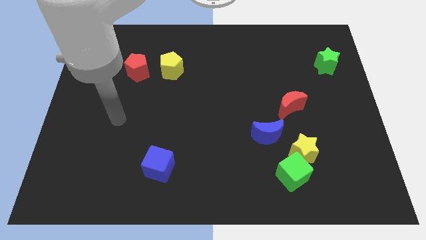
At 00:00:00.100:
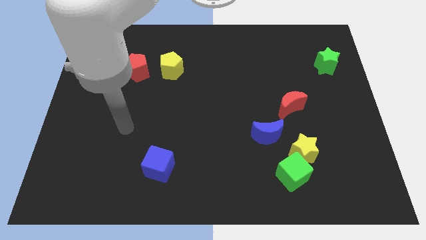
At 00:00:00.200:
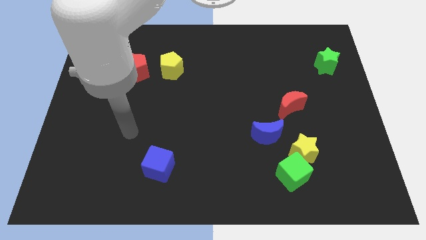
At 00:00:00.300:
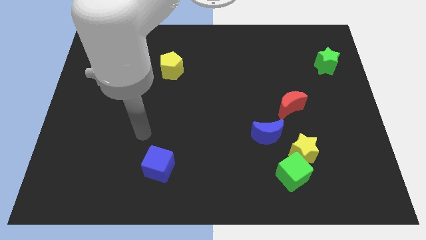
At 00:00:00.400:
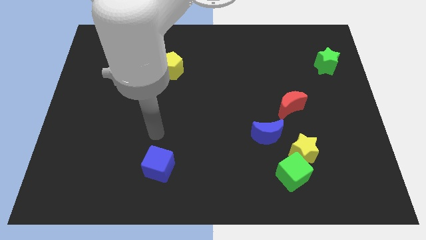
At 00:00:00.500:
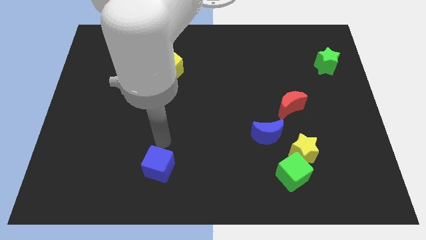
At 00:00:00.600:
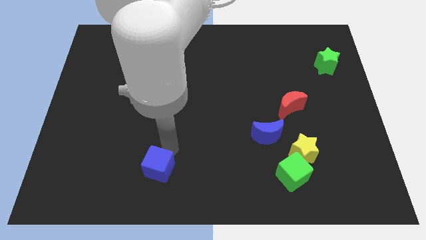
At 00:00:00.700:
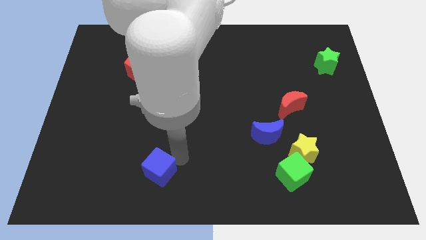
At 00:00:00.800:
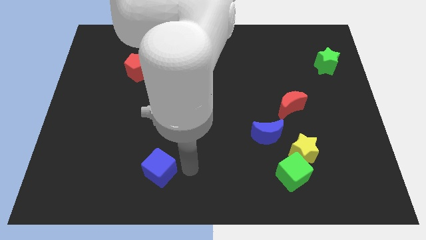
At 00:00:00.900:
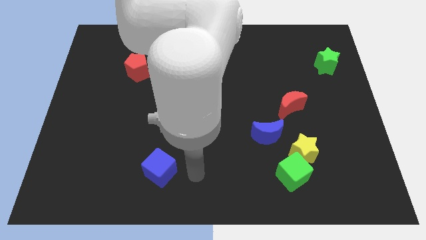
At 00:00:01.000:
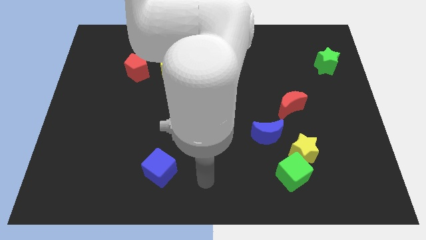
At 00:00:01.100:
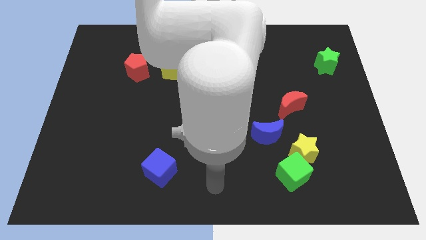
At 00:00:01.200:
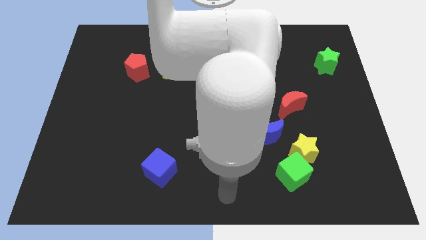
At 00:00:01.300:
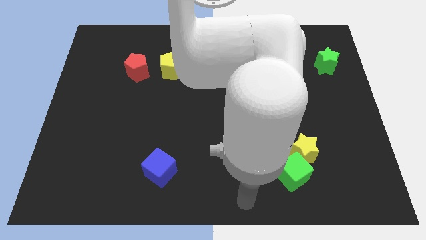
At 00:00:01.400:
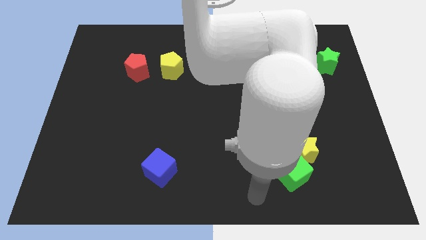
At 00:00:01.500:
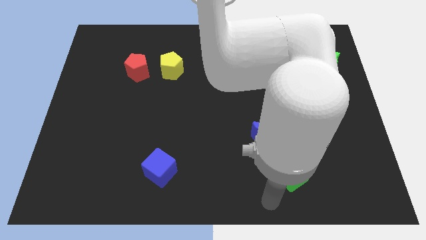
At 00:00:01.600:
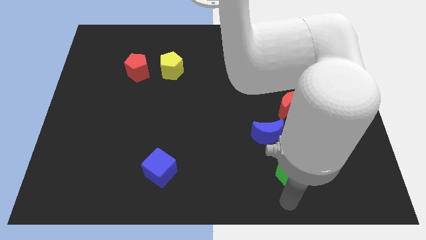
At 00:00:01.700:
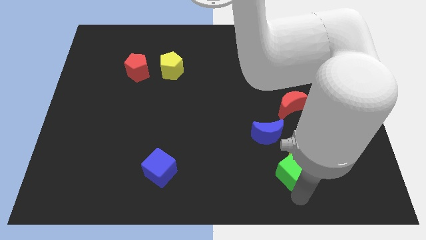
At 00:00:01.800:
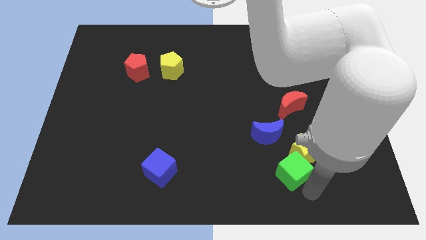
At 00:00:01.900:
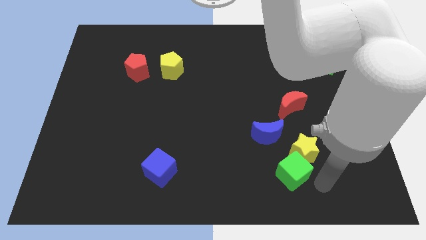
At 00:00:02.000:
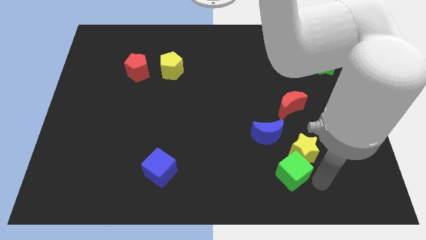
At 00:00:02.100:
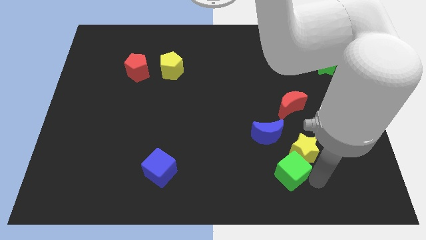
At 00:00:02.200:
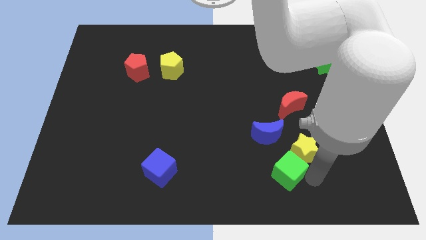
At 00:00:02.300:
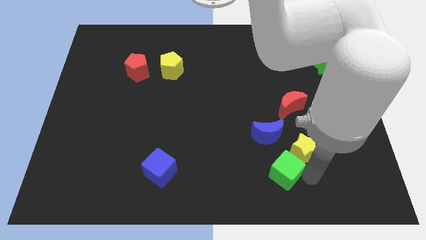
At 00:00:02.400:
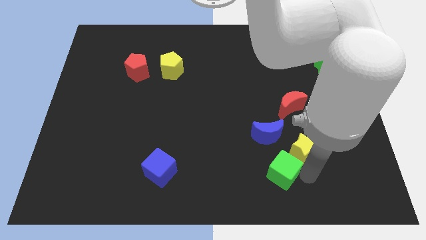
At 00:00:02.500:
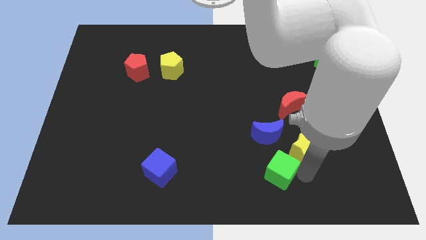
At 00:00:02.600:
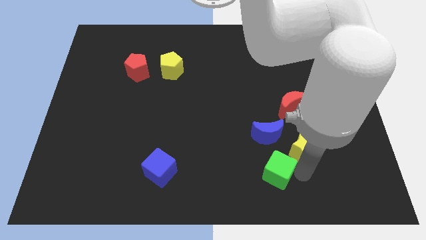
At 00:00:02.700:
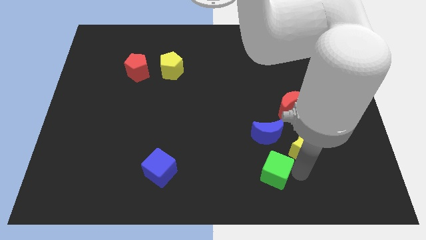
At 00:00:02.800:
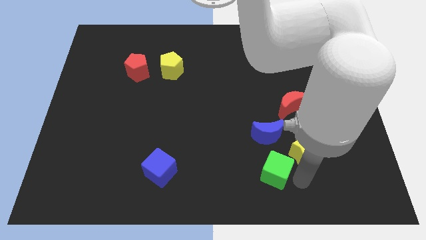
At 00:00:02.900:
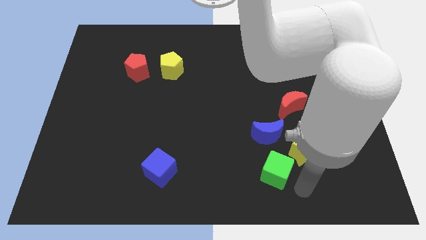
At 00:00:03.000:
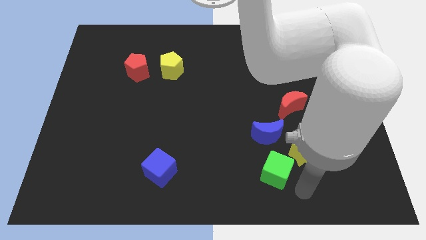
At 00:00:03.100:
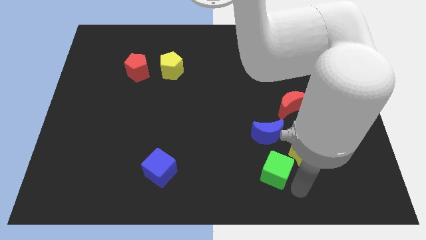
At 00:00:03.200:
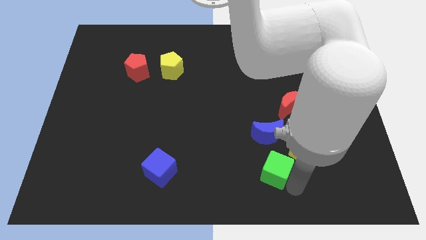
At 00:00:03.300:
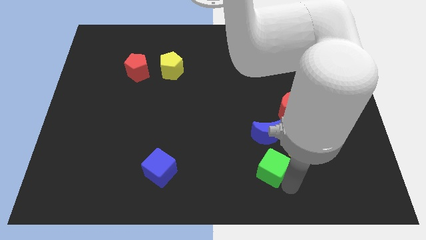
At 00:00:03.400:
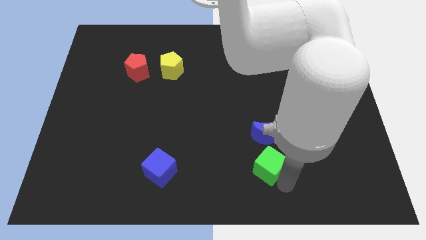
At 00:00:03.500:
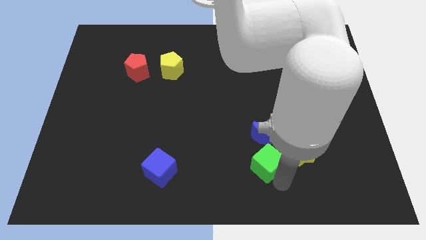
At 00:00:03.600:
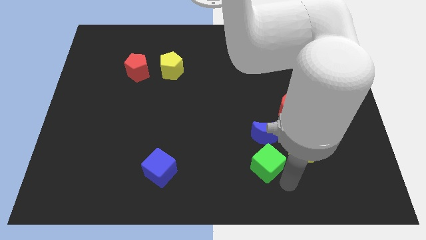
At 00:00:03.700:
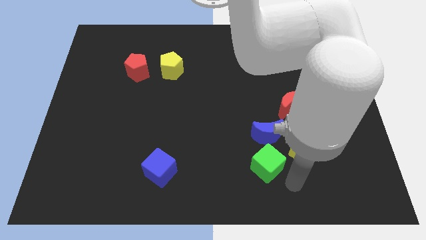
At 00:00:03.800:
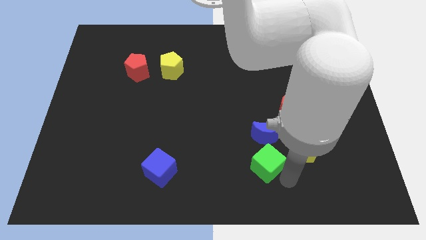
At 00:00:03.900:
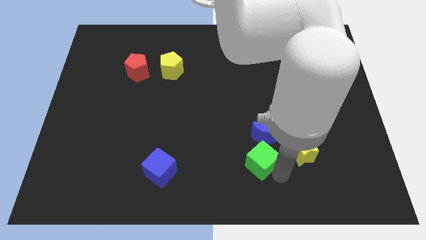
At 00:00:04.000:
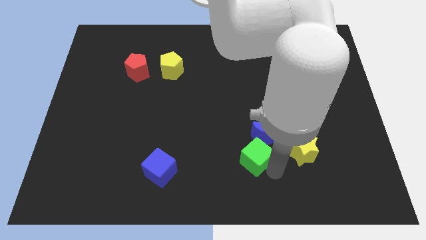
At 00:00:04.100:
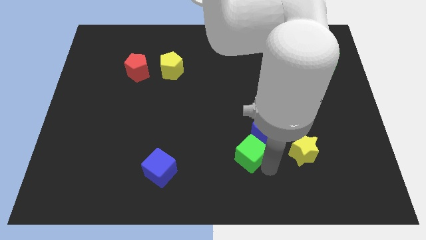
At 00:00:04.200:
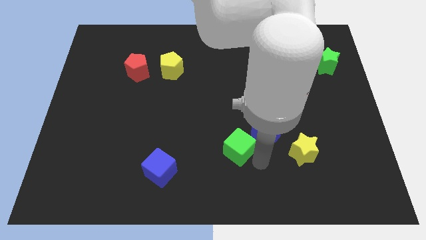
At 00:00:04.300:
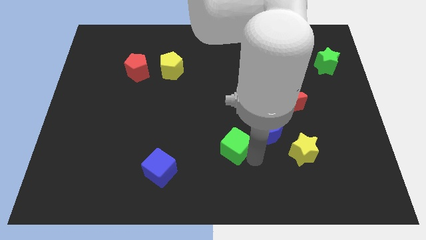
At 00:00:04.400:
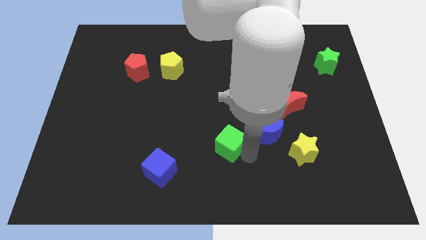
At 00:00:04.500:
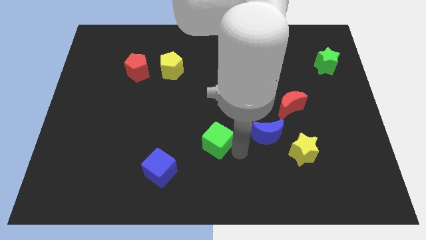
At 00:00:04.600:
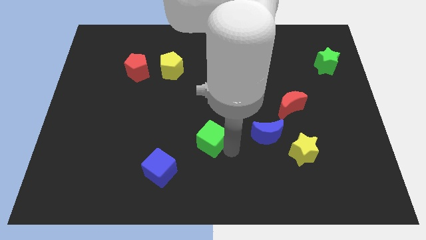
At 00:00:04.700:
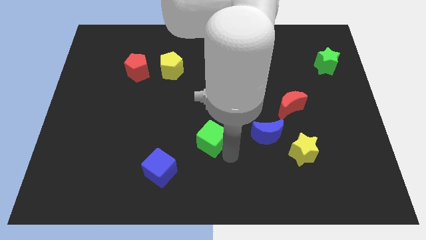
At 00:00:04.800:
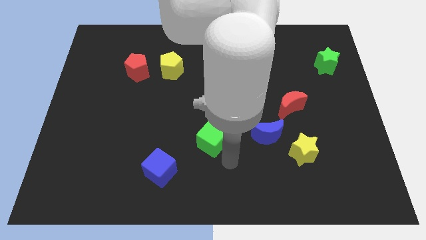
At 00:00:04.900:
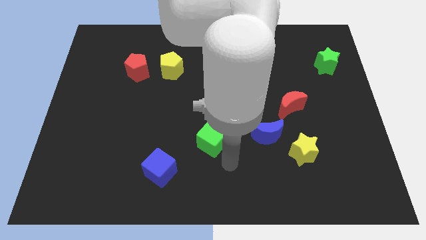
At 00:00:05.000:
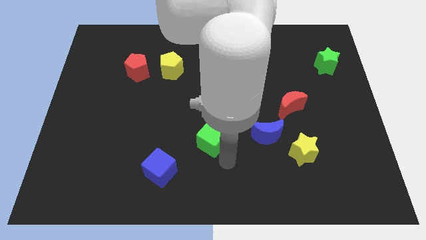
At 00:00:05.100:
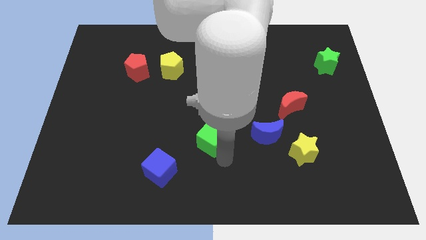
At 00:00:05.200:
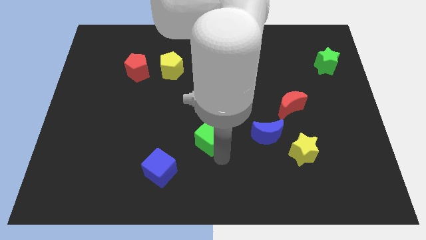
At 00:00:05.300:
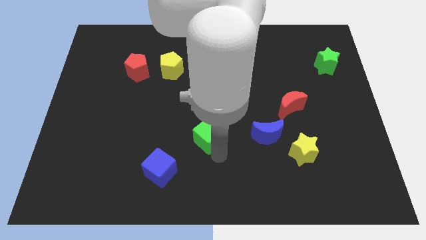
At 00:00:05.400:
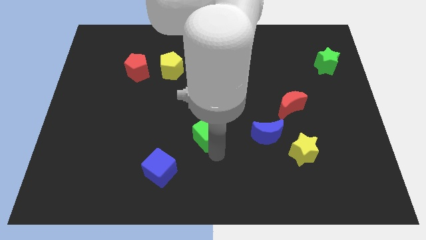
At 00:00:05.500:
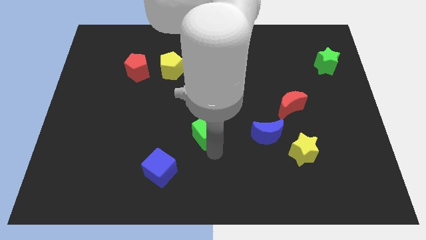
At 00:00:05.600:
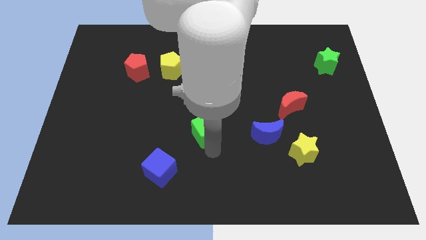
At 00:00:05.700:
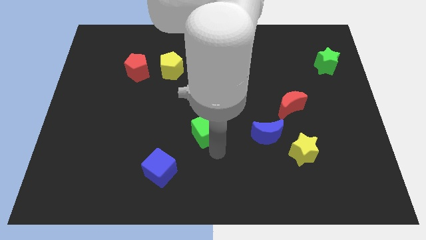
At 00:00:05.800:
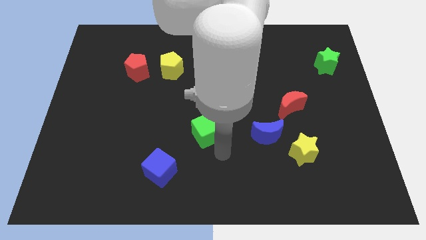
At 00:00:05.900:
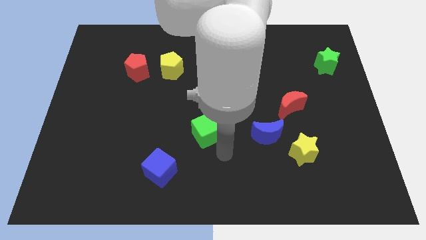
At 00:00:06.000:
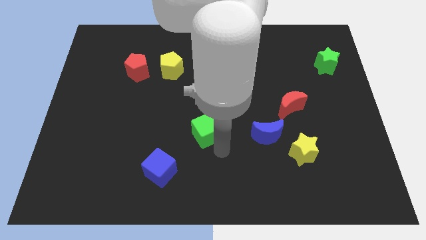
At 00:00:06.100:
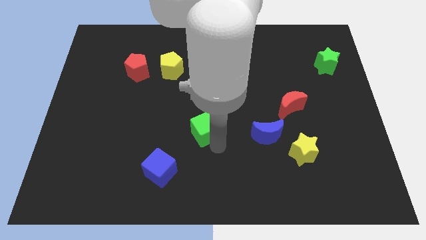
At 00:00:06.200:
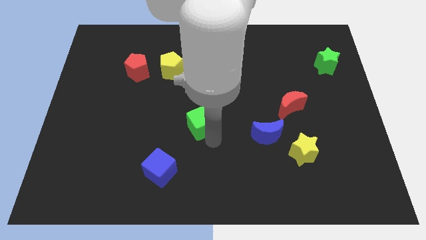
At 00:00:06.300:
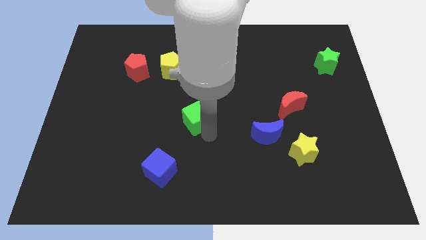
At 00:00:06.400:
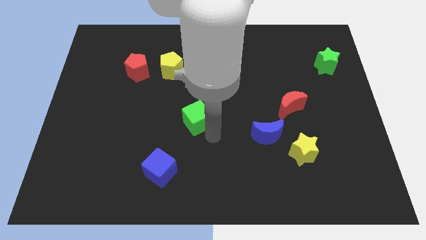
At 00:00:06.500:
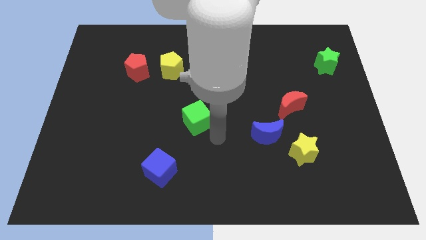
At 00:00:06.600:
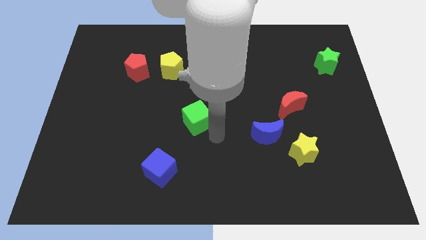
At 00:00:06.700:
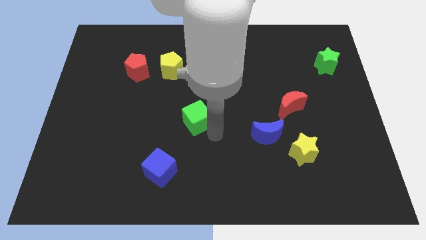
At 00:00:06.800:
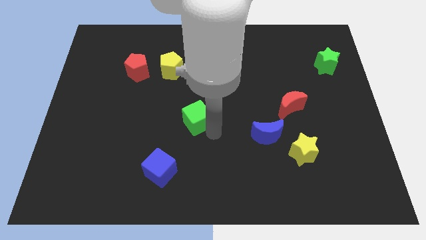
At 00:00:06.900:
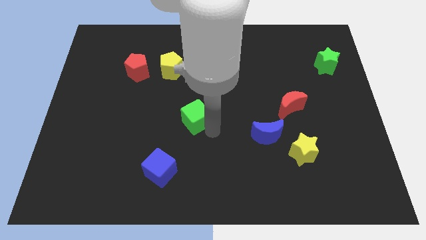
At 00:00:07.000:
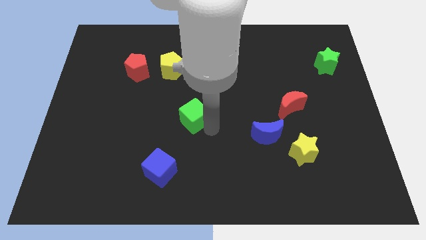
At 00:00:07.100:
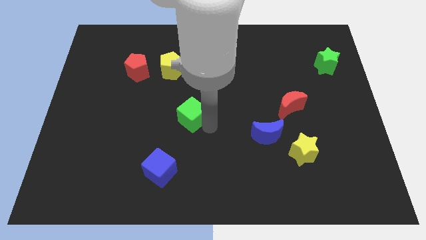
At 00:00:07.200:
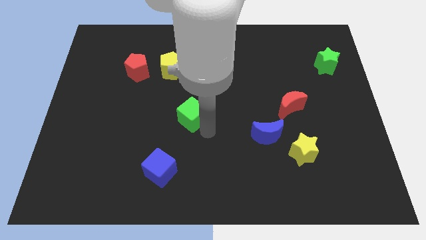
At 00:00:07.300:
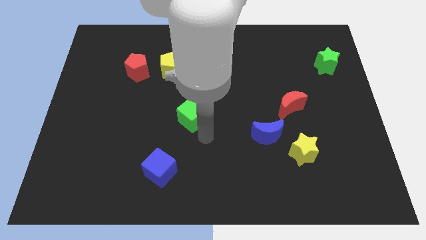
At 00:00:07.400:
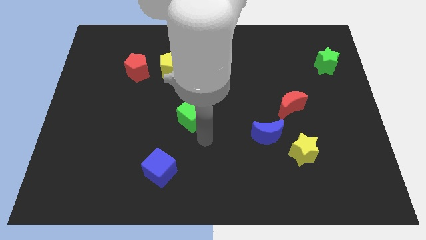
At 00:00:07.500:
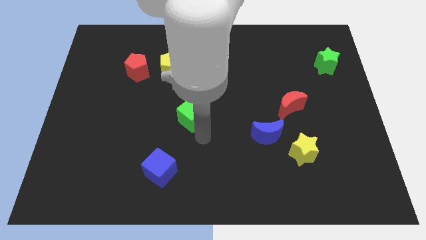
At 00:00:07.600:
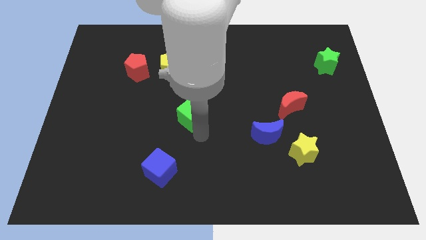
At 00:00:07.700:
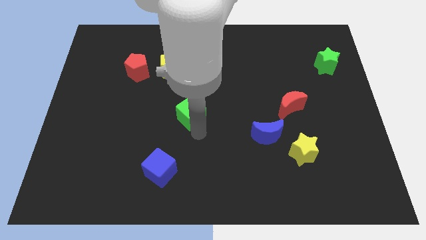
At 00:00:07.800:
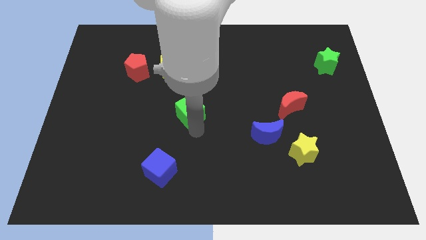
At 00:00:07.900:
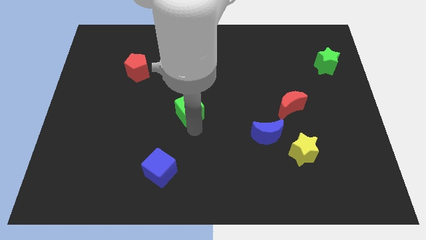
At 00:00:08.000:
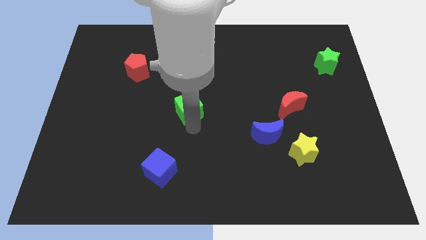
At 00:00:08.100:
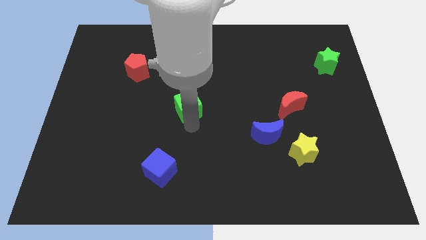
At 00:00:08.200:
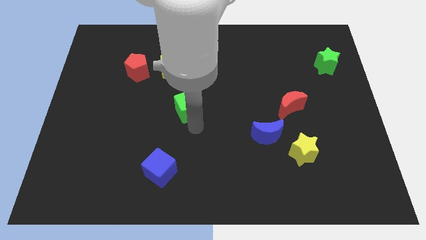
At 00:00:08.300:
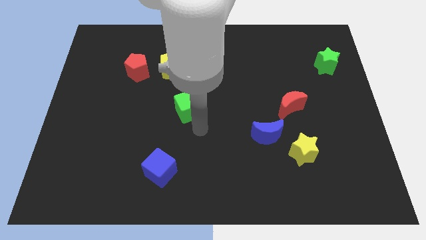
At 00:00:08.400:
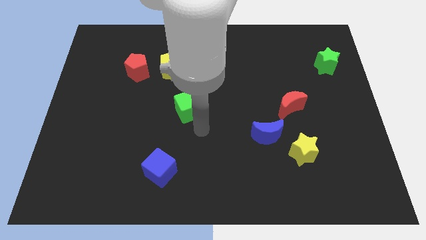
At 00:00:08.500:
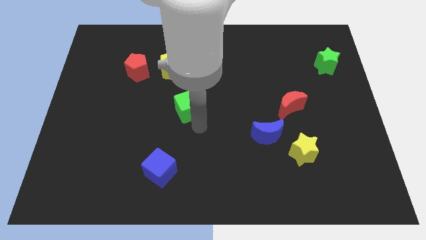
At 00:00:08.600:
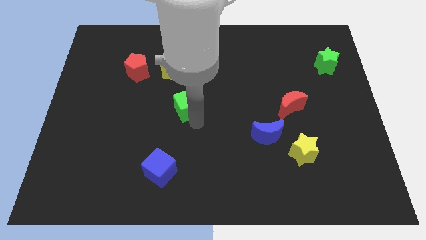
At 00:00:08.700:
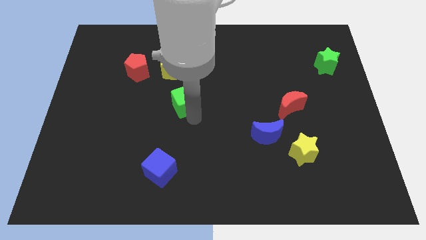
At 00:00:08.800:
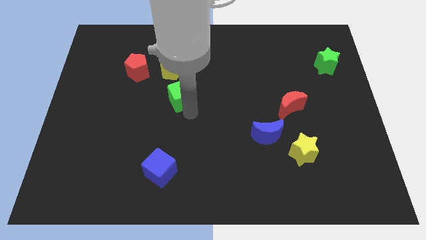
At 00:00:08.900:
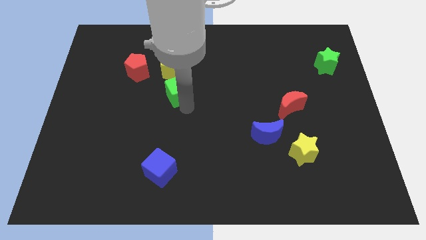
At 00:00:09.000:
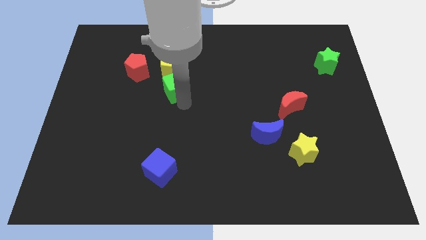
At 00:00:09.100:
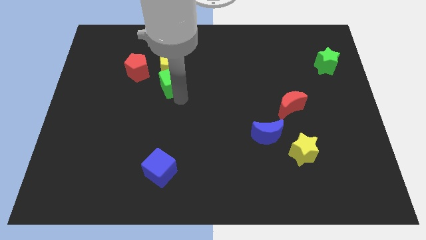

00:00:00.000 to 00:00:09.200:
move the green cube close to the yellow pentagon
